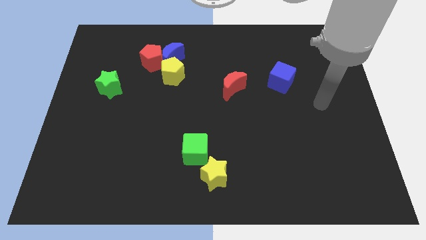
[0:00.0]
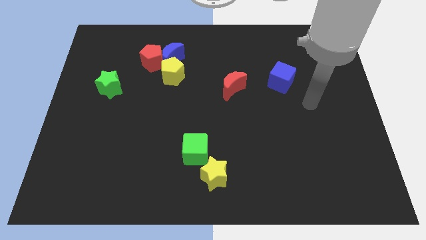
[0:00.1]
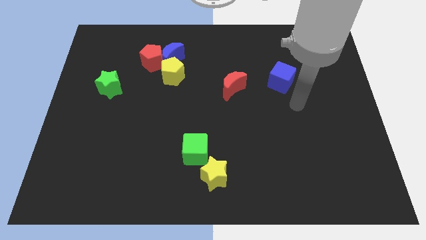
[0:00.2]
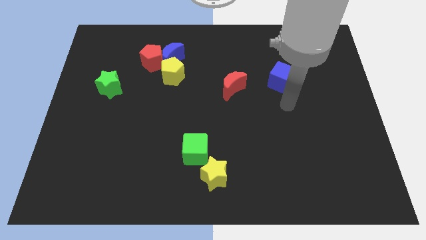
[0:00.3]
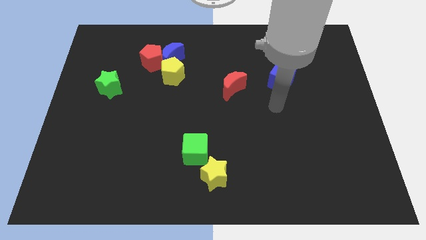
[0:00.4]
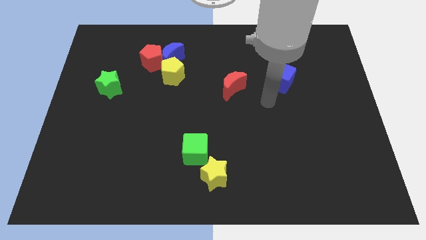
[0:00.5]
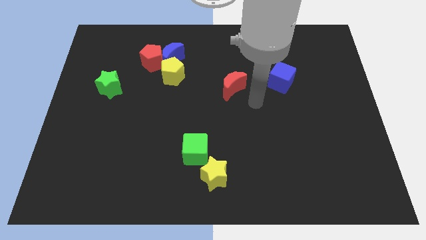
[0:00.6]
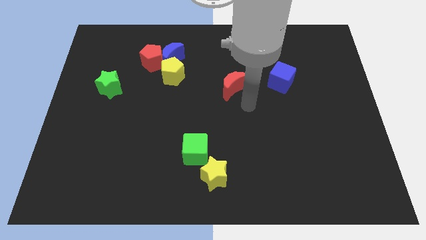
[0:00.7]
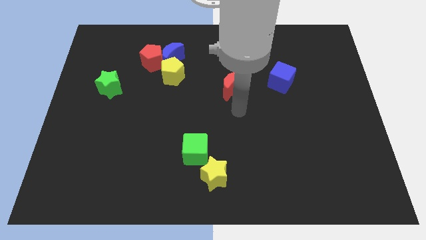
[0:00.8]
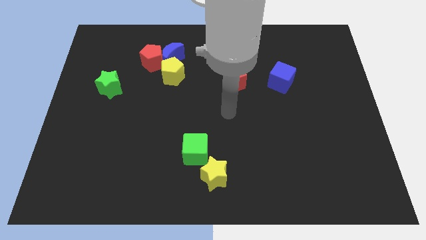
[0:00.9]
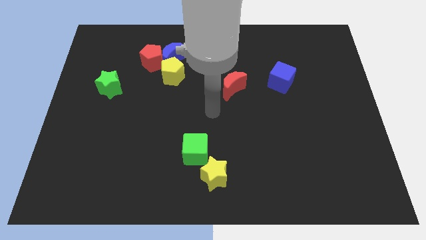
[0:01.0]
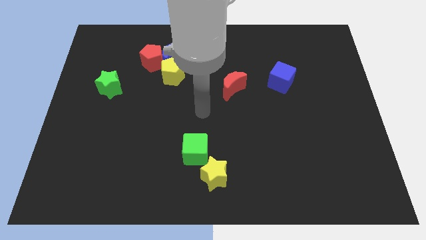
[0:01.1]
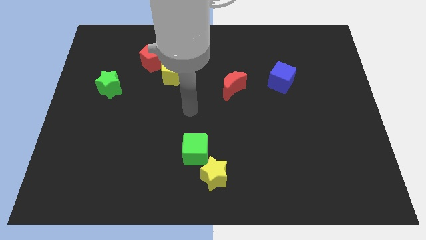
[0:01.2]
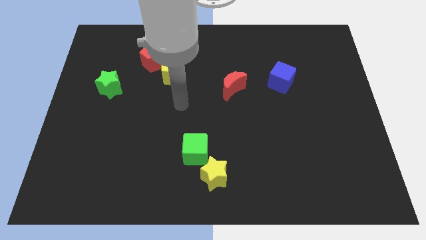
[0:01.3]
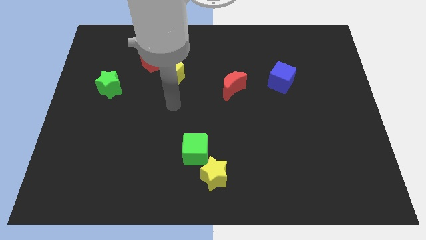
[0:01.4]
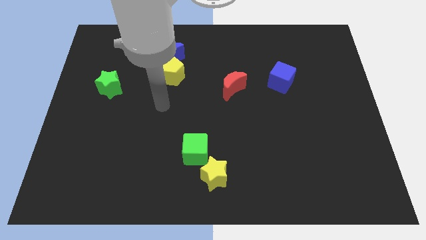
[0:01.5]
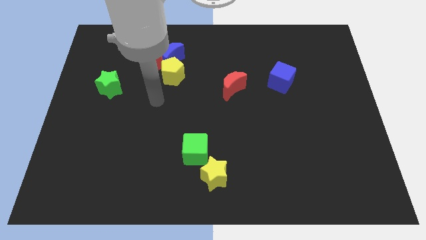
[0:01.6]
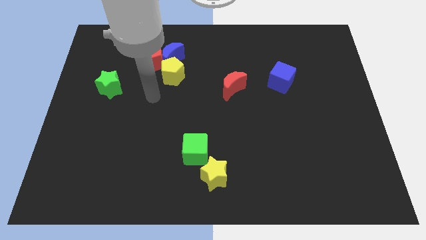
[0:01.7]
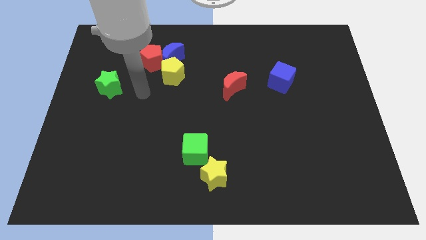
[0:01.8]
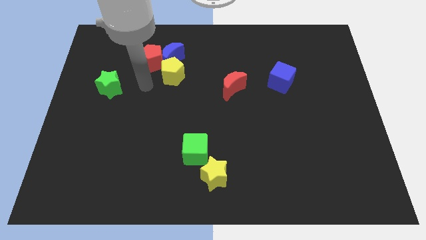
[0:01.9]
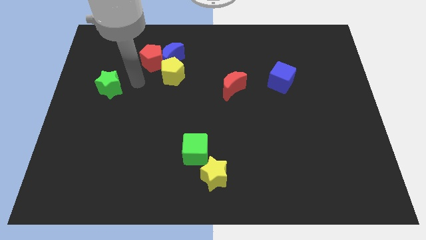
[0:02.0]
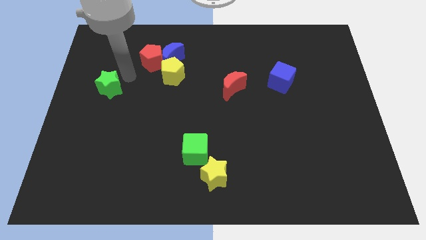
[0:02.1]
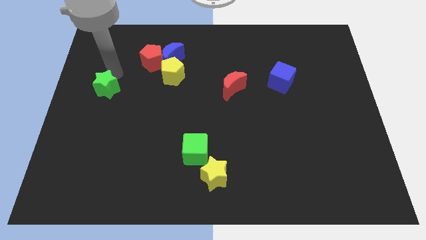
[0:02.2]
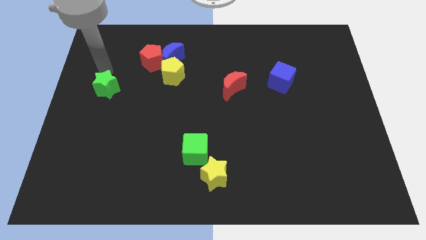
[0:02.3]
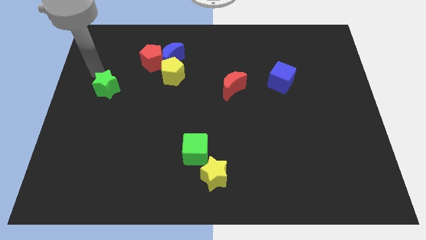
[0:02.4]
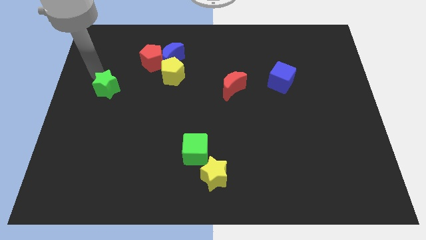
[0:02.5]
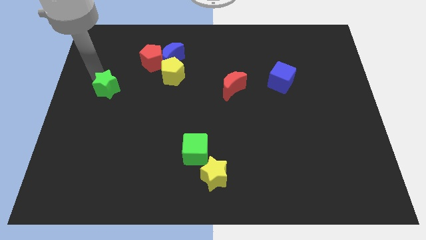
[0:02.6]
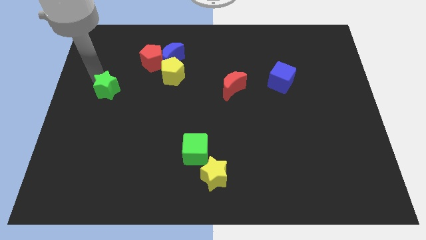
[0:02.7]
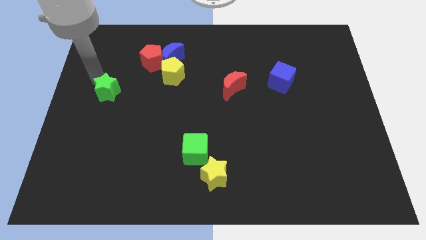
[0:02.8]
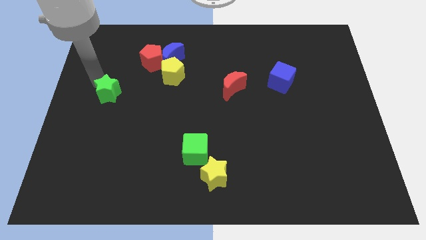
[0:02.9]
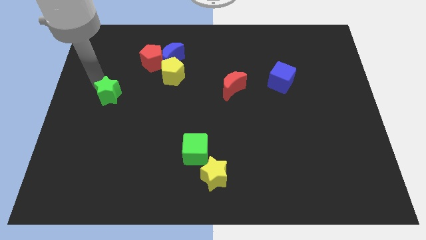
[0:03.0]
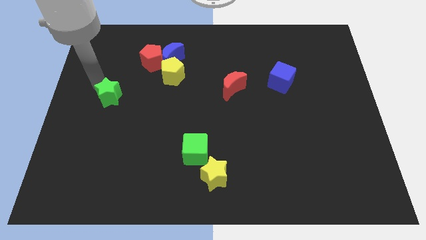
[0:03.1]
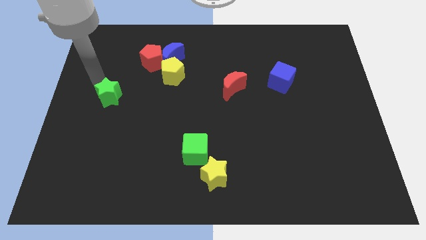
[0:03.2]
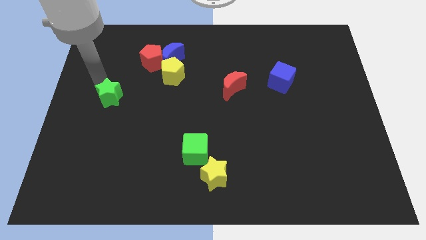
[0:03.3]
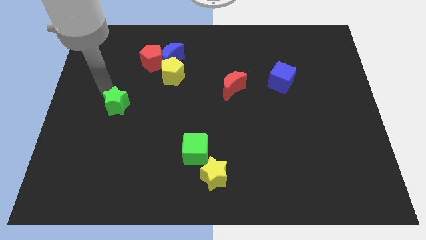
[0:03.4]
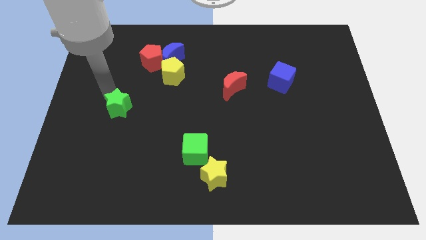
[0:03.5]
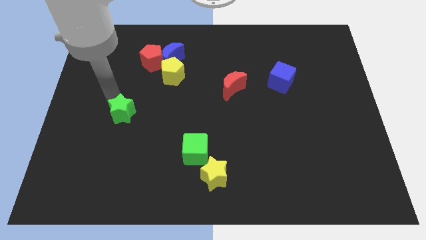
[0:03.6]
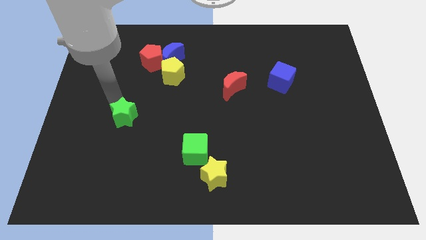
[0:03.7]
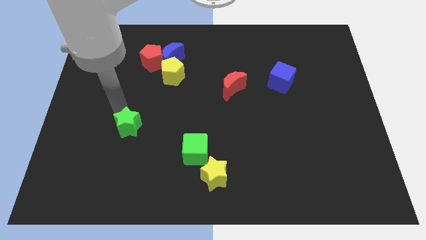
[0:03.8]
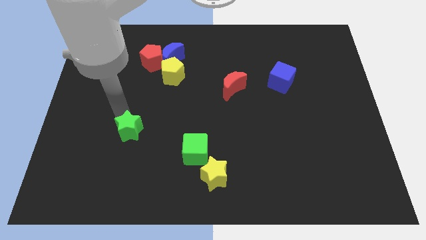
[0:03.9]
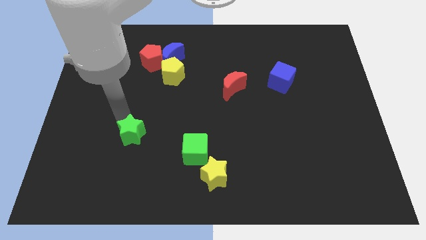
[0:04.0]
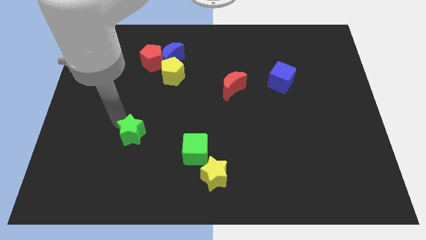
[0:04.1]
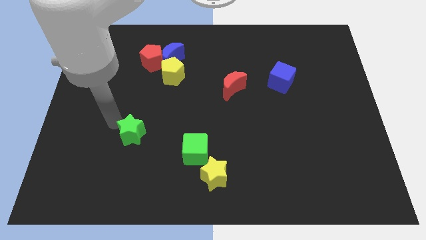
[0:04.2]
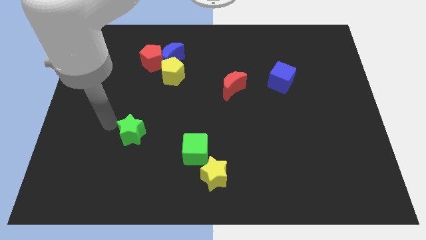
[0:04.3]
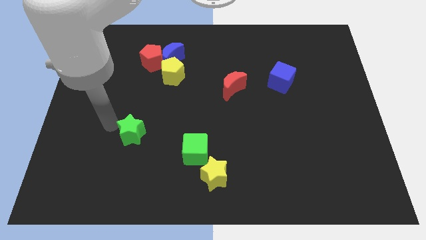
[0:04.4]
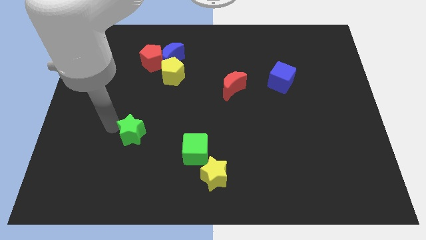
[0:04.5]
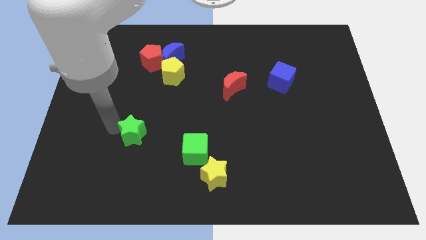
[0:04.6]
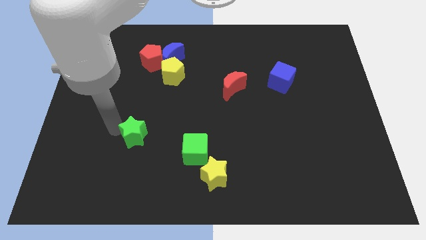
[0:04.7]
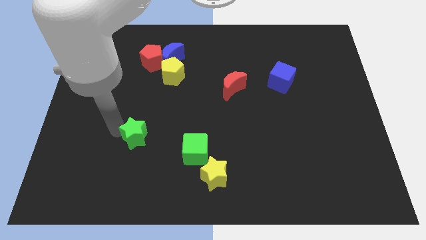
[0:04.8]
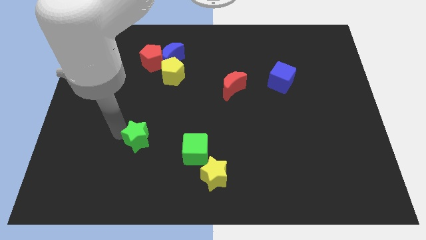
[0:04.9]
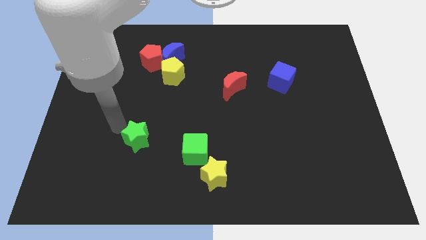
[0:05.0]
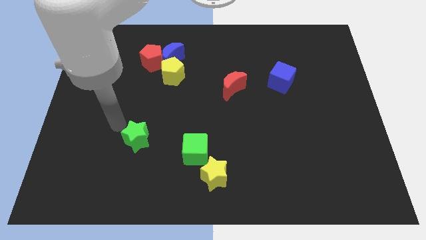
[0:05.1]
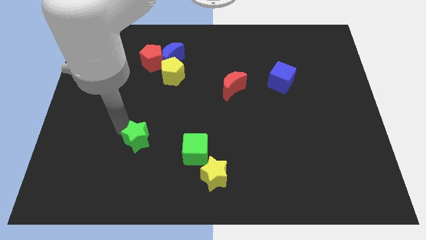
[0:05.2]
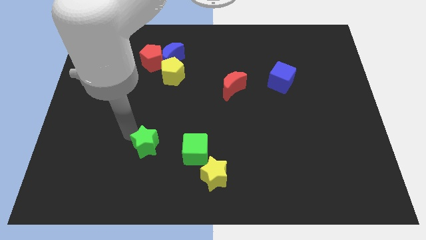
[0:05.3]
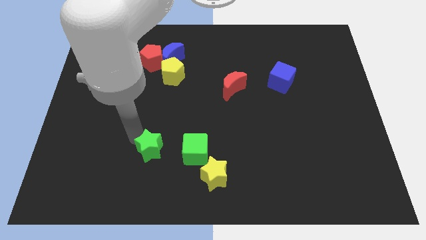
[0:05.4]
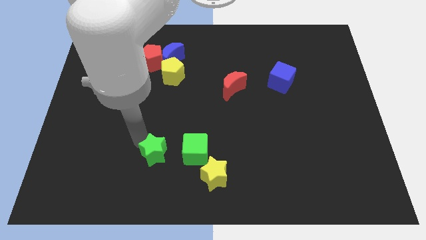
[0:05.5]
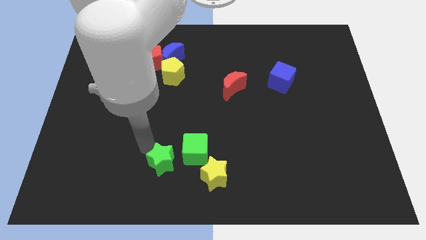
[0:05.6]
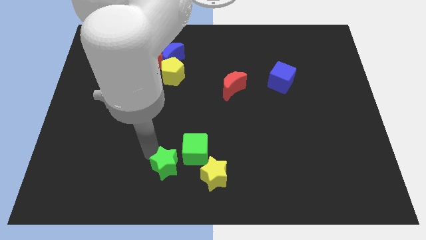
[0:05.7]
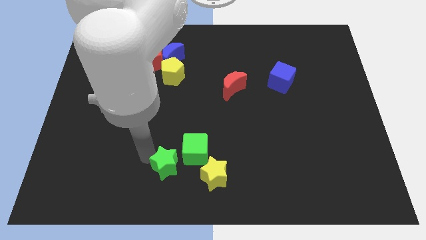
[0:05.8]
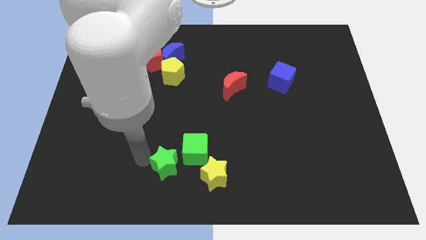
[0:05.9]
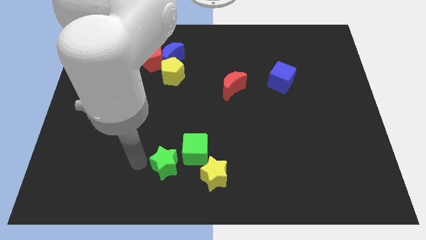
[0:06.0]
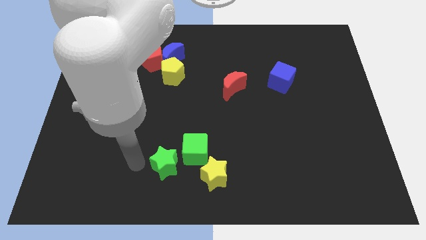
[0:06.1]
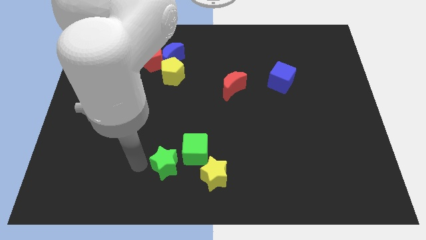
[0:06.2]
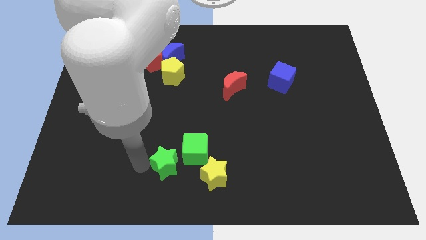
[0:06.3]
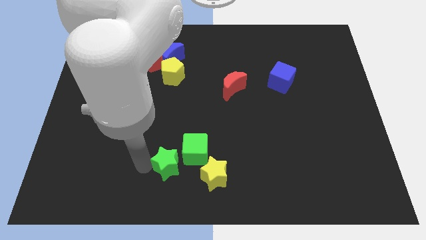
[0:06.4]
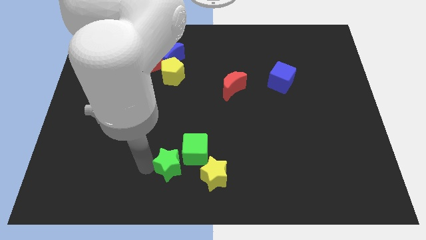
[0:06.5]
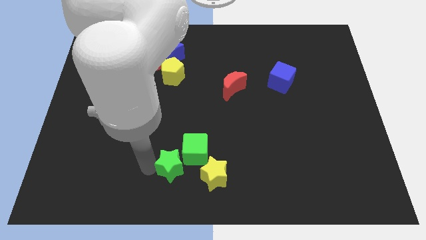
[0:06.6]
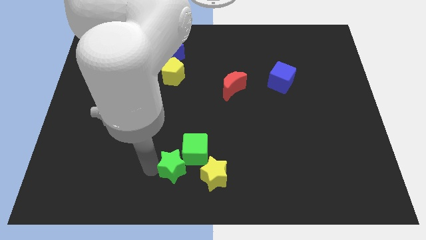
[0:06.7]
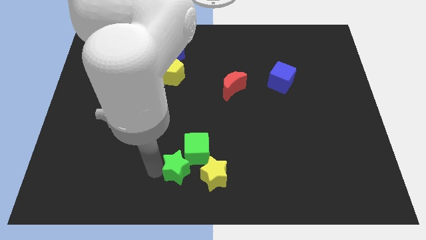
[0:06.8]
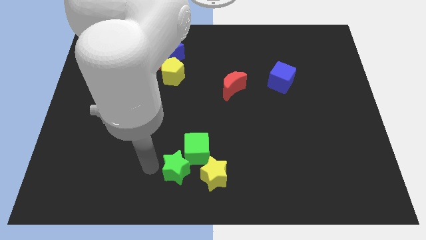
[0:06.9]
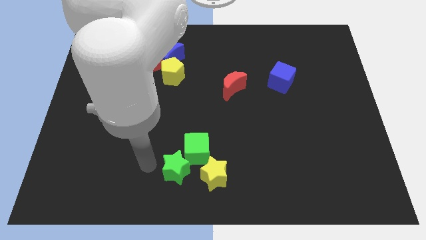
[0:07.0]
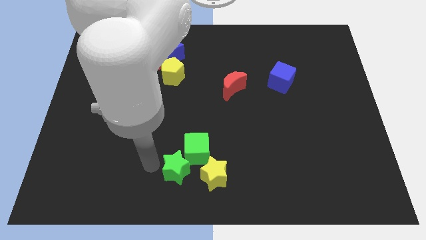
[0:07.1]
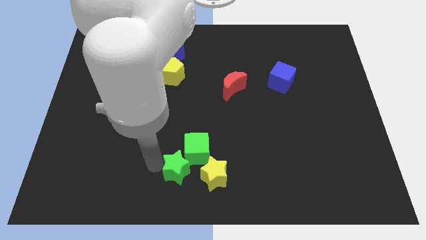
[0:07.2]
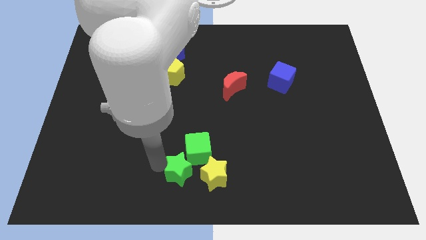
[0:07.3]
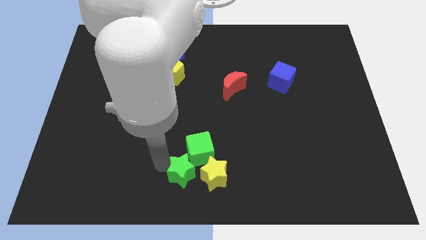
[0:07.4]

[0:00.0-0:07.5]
push the green star close to the yellow star
